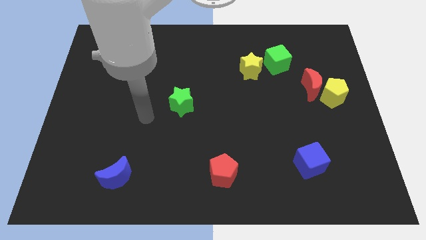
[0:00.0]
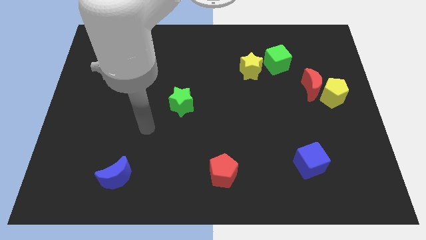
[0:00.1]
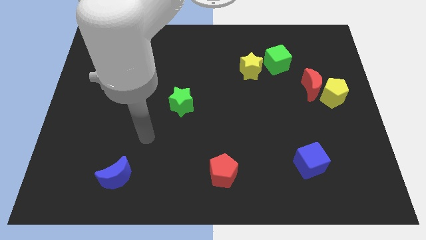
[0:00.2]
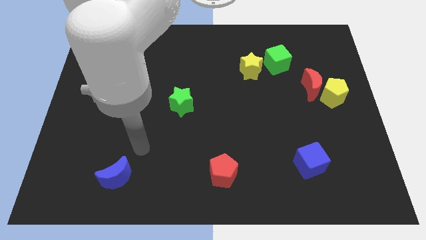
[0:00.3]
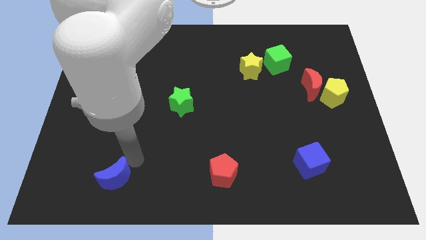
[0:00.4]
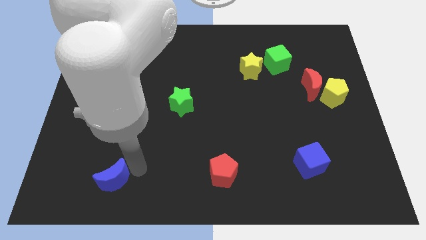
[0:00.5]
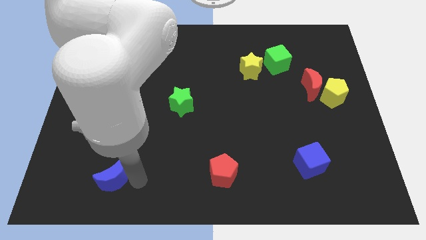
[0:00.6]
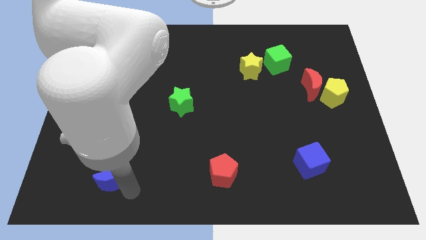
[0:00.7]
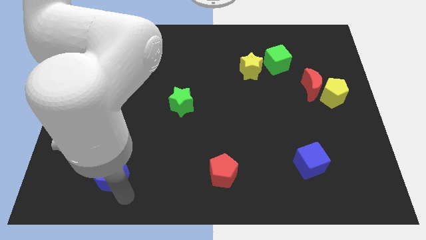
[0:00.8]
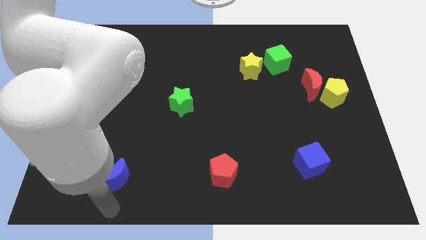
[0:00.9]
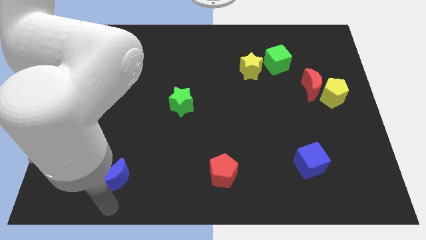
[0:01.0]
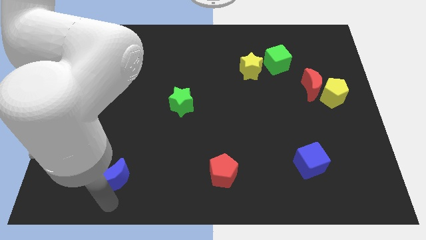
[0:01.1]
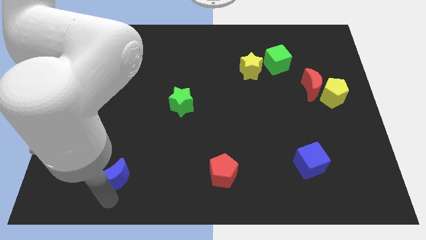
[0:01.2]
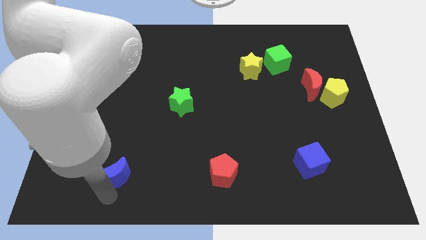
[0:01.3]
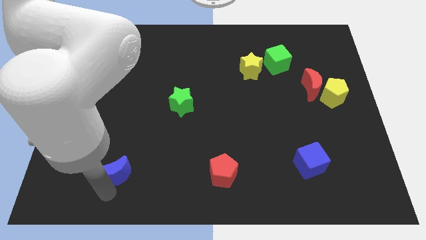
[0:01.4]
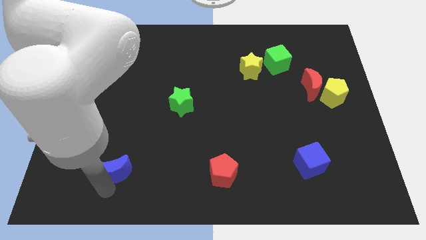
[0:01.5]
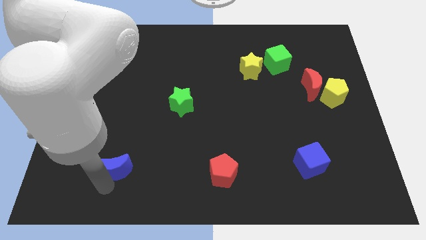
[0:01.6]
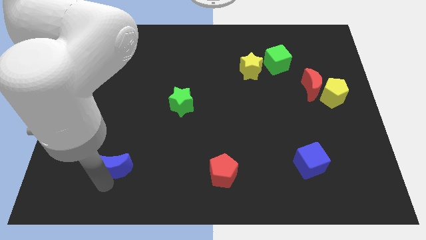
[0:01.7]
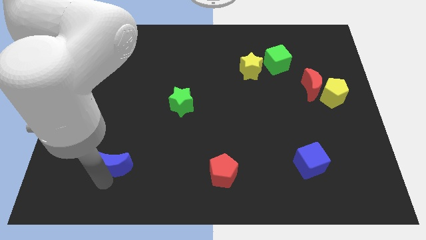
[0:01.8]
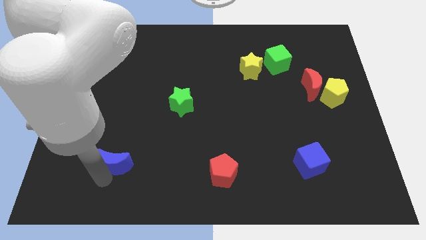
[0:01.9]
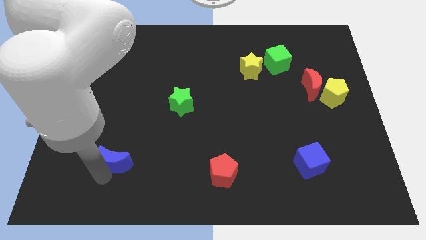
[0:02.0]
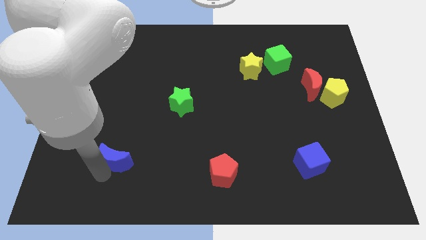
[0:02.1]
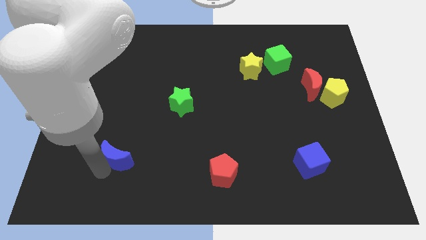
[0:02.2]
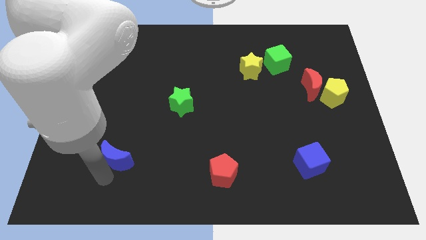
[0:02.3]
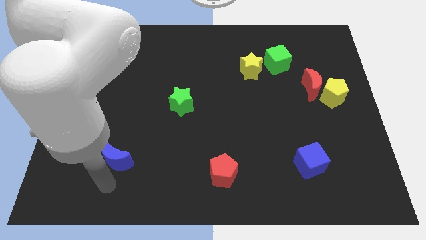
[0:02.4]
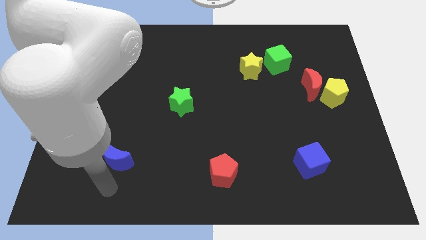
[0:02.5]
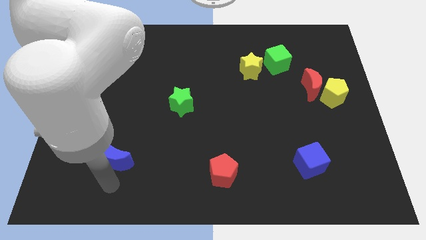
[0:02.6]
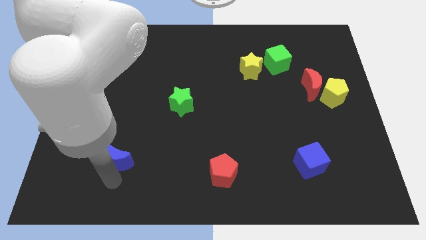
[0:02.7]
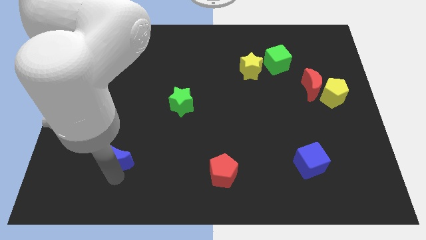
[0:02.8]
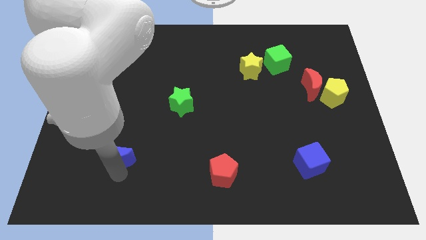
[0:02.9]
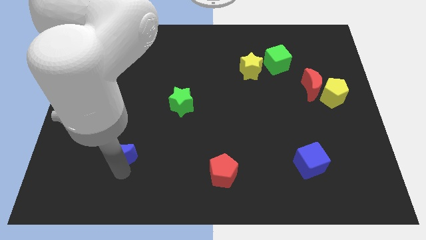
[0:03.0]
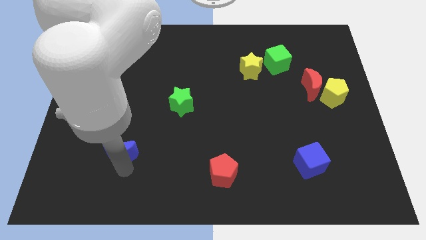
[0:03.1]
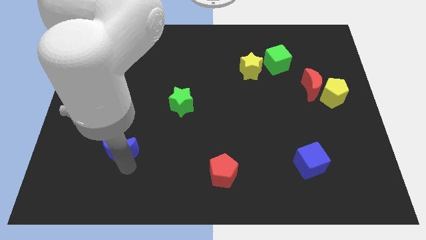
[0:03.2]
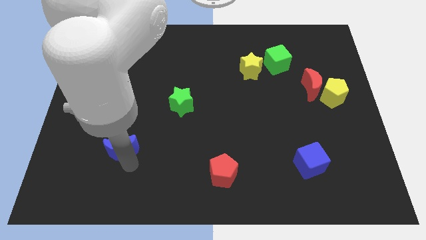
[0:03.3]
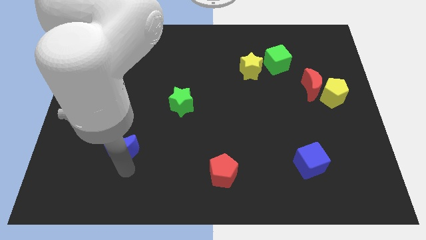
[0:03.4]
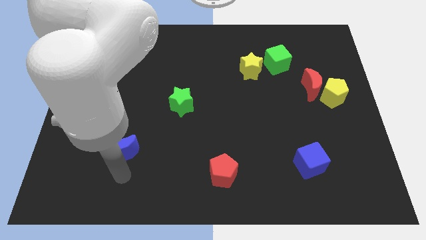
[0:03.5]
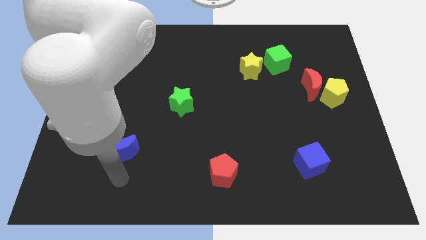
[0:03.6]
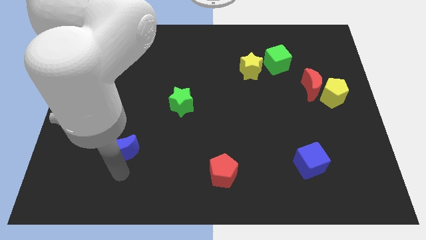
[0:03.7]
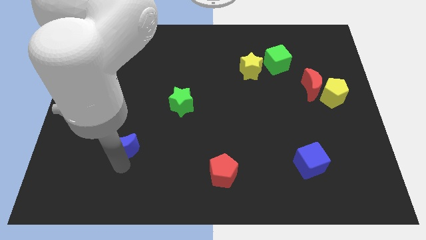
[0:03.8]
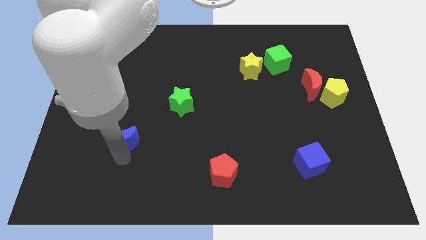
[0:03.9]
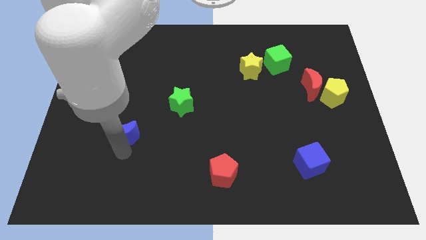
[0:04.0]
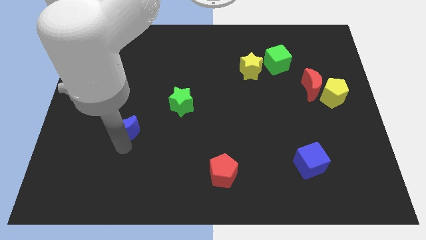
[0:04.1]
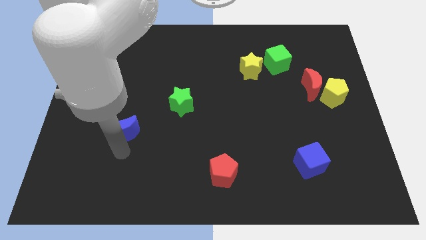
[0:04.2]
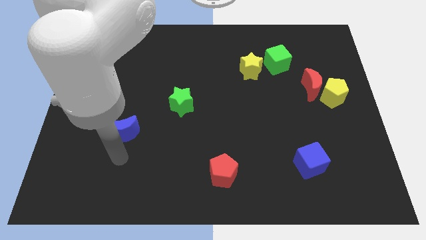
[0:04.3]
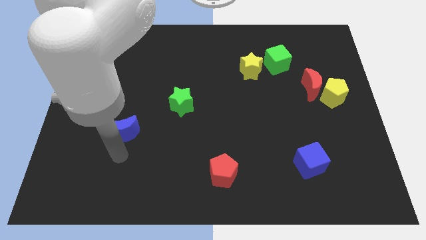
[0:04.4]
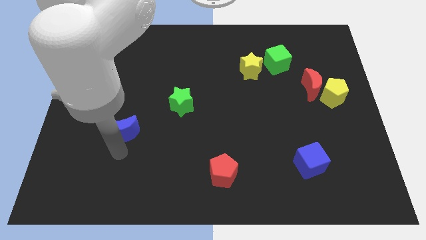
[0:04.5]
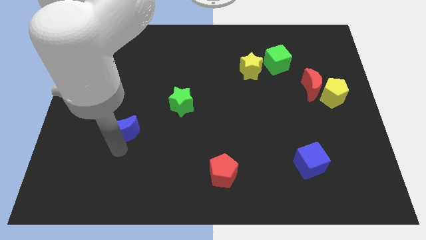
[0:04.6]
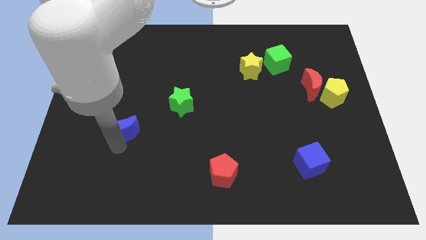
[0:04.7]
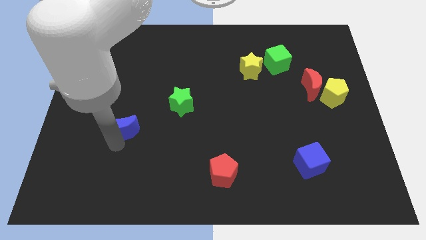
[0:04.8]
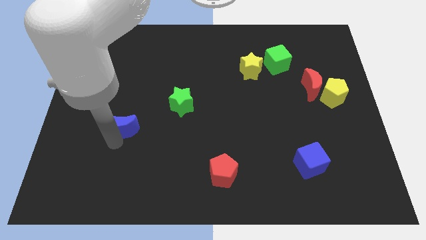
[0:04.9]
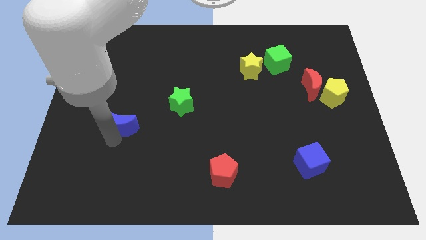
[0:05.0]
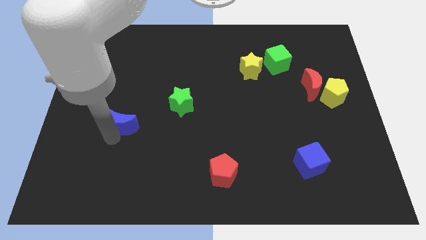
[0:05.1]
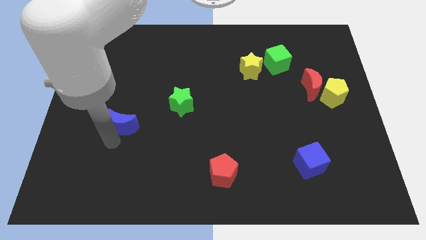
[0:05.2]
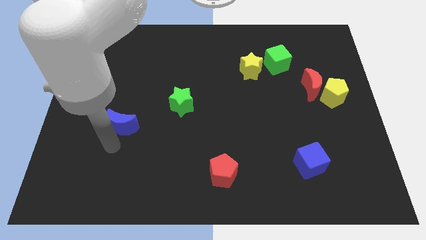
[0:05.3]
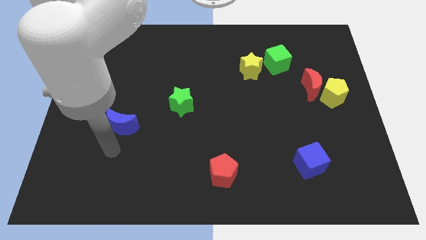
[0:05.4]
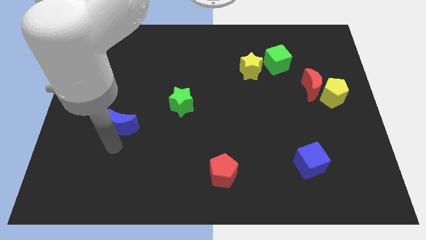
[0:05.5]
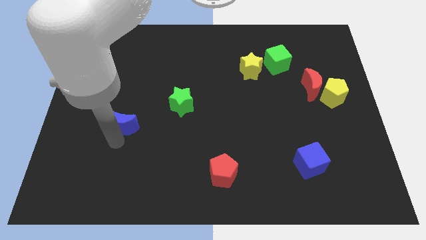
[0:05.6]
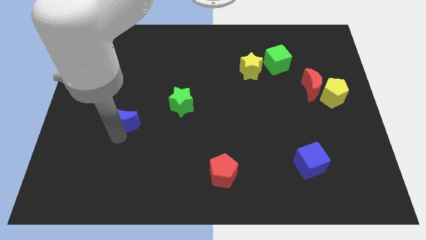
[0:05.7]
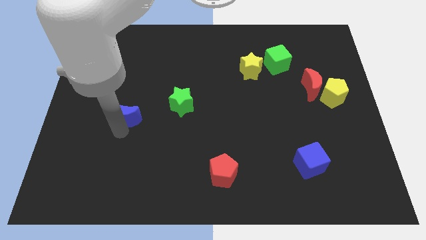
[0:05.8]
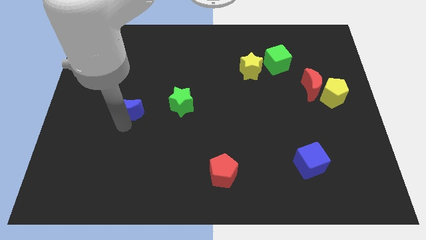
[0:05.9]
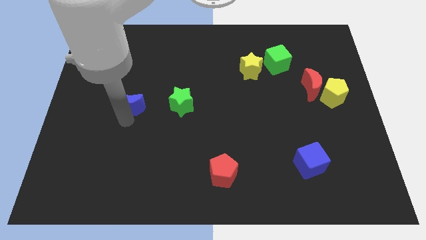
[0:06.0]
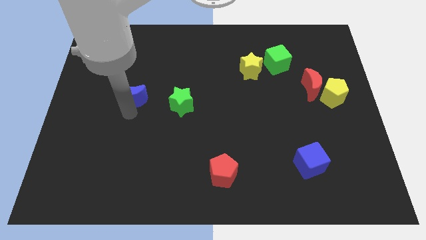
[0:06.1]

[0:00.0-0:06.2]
move the blue moon upwards

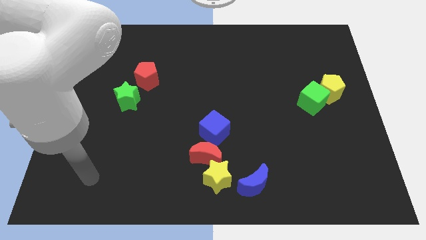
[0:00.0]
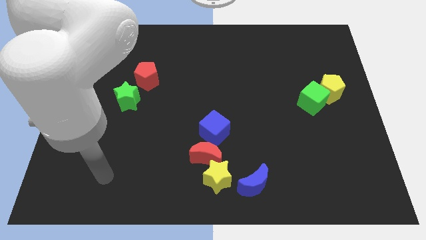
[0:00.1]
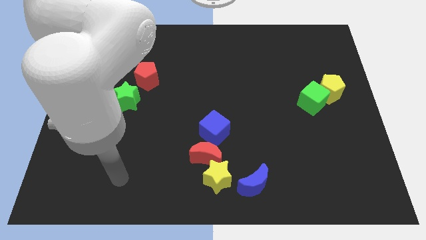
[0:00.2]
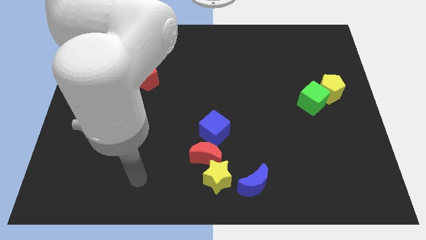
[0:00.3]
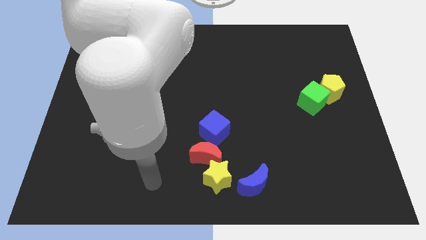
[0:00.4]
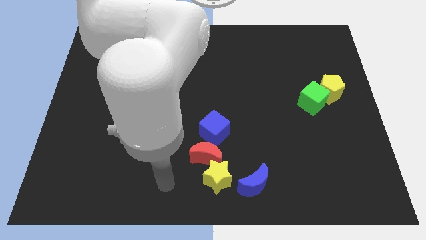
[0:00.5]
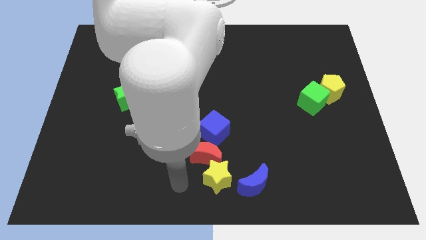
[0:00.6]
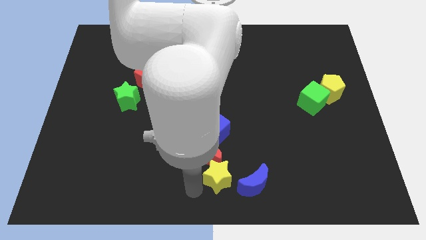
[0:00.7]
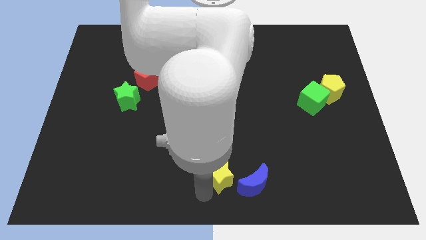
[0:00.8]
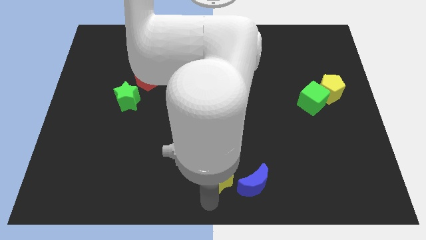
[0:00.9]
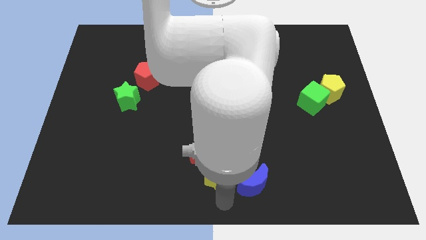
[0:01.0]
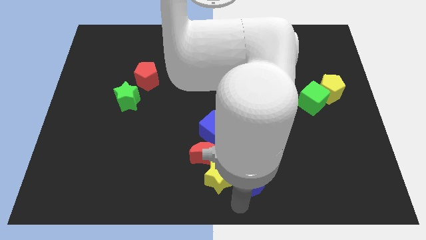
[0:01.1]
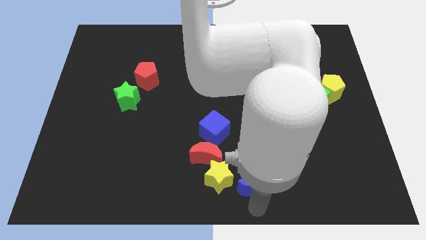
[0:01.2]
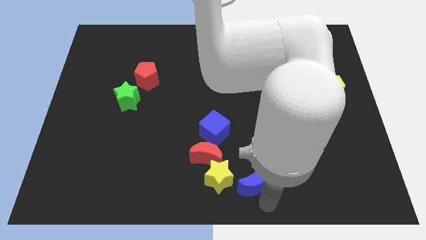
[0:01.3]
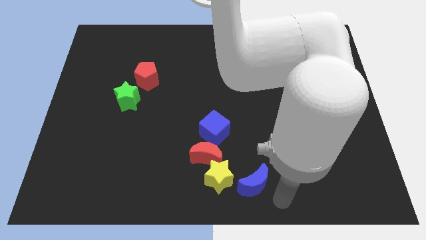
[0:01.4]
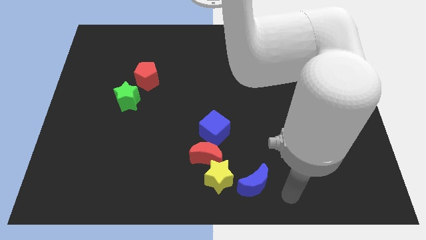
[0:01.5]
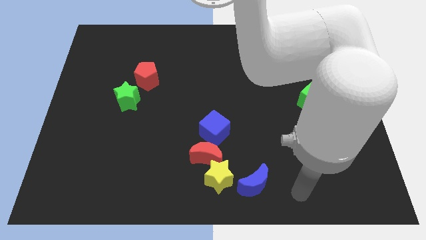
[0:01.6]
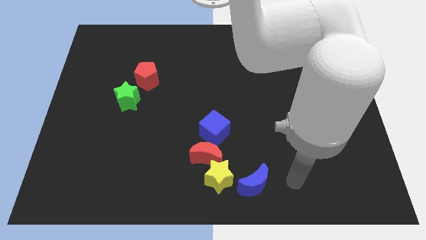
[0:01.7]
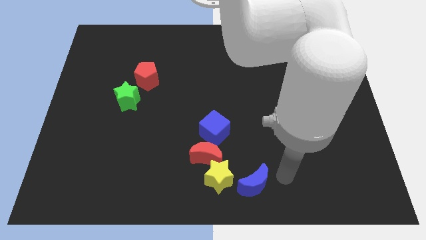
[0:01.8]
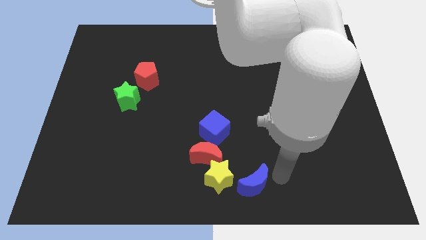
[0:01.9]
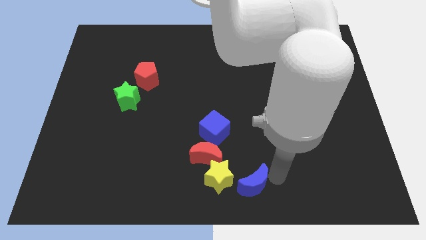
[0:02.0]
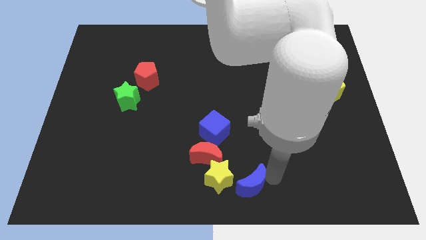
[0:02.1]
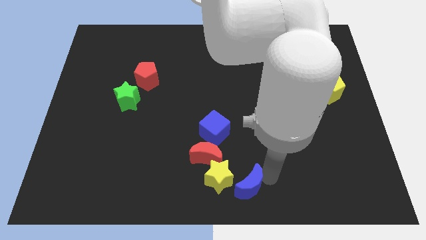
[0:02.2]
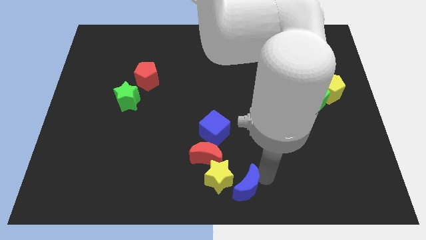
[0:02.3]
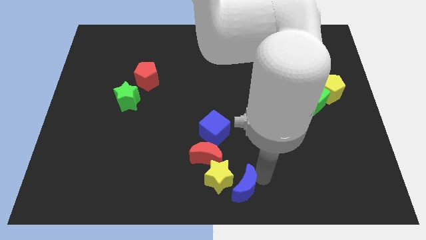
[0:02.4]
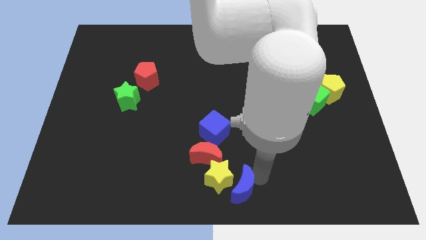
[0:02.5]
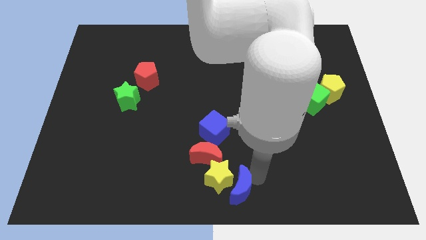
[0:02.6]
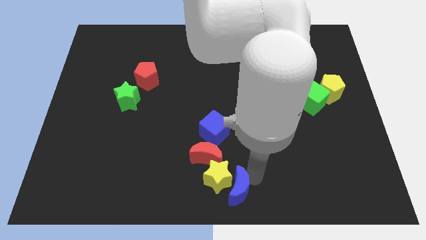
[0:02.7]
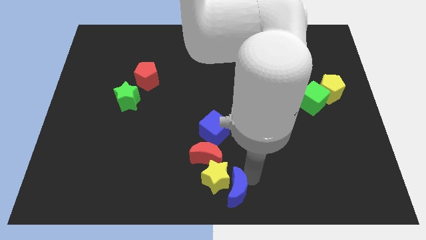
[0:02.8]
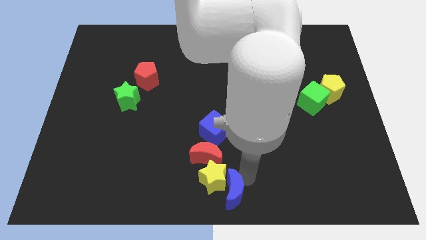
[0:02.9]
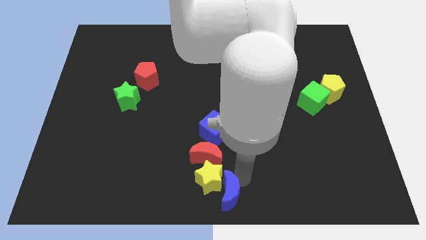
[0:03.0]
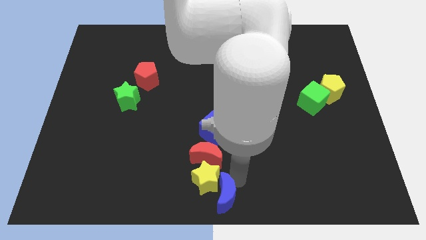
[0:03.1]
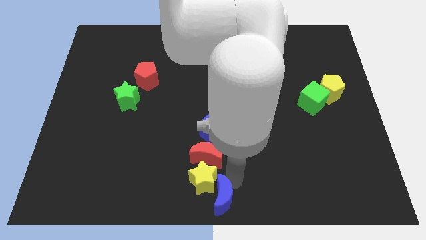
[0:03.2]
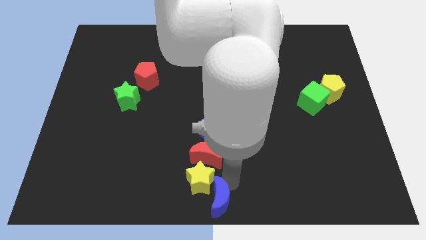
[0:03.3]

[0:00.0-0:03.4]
slide the blue moon left a bit
